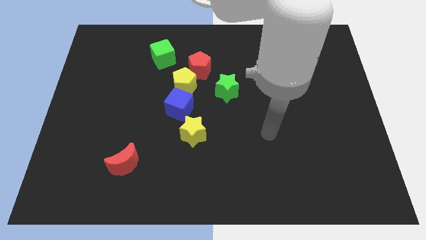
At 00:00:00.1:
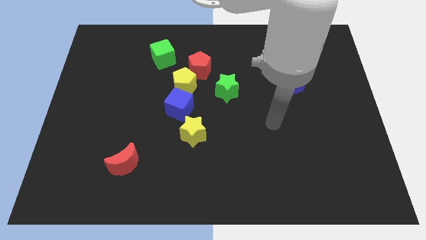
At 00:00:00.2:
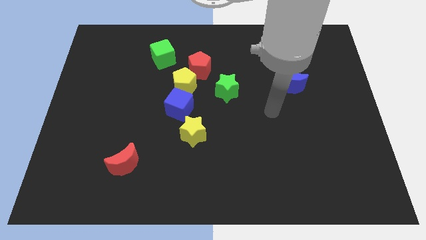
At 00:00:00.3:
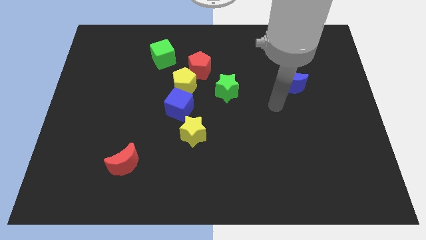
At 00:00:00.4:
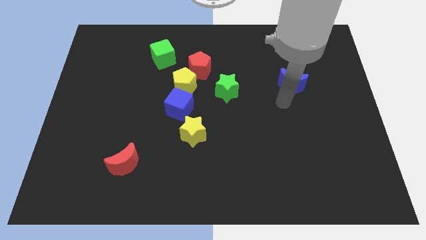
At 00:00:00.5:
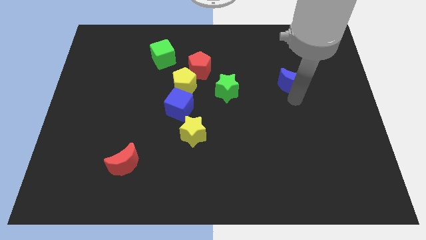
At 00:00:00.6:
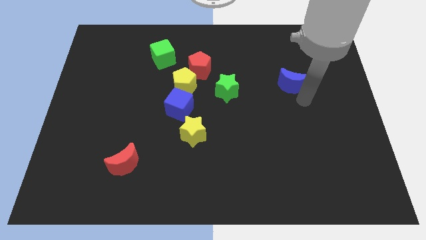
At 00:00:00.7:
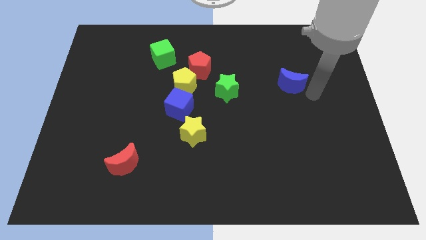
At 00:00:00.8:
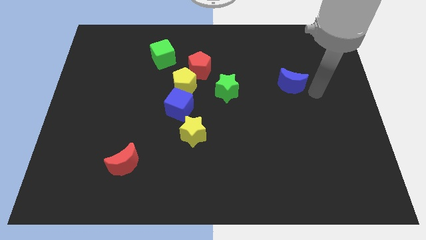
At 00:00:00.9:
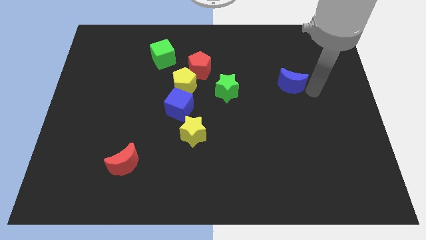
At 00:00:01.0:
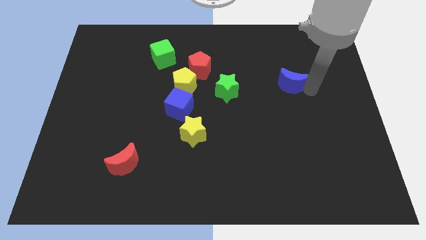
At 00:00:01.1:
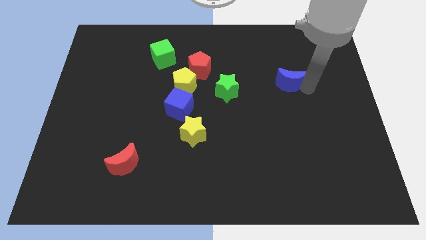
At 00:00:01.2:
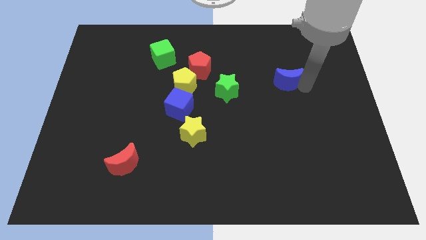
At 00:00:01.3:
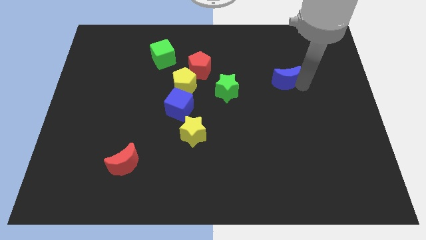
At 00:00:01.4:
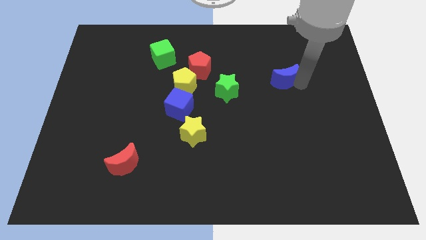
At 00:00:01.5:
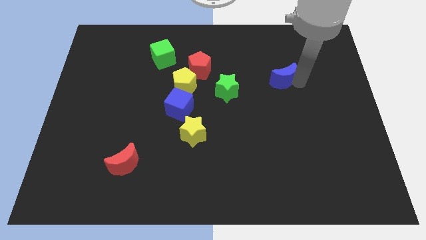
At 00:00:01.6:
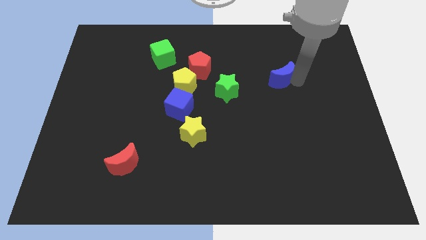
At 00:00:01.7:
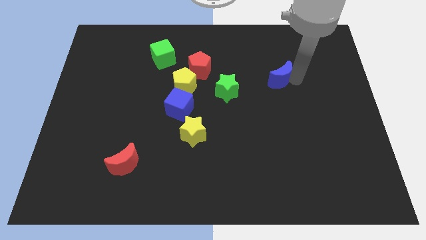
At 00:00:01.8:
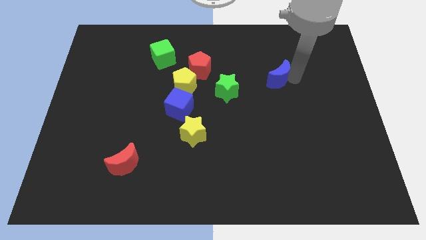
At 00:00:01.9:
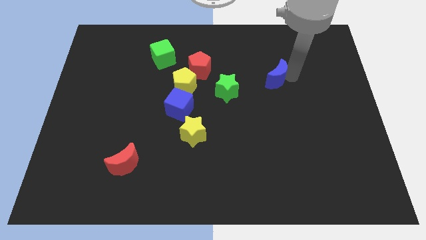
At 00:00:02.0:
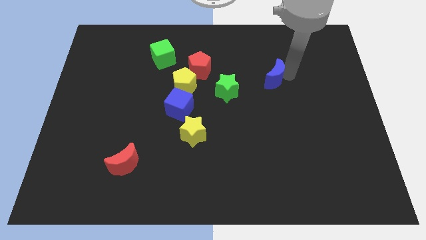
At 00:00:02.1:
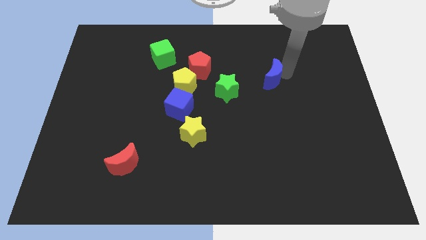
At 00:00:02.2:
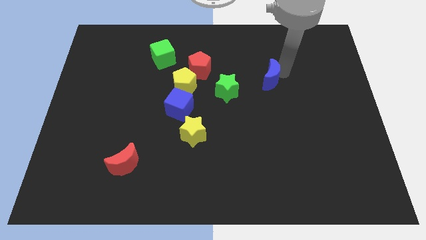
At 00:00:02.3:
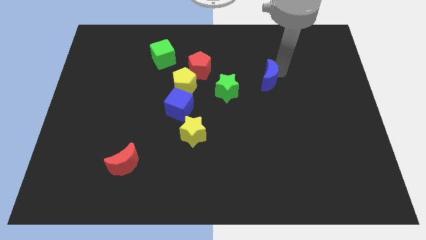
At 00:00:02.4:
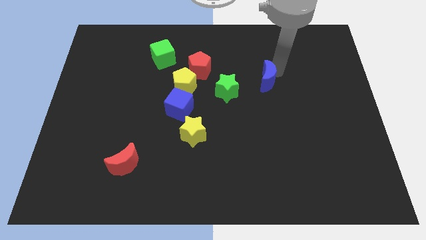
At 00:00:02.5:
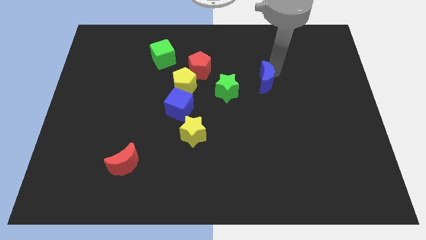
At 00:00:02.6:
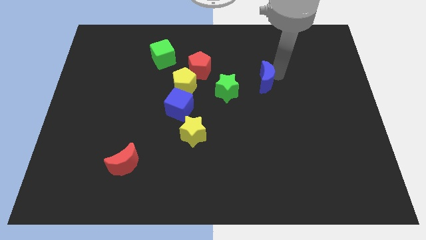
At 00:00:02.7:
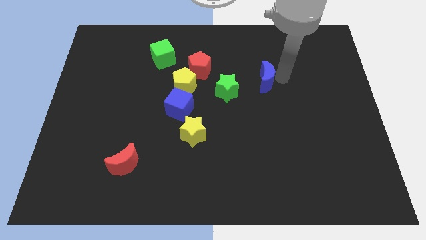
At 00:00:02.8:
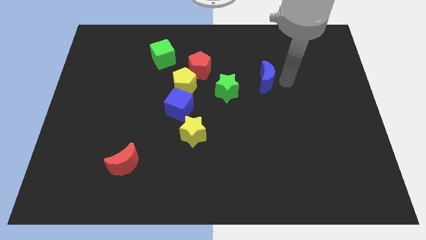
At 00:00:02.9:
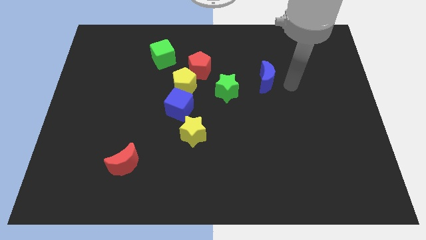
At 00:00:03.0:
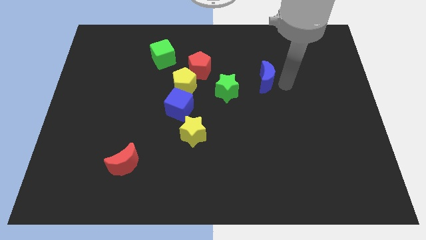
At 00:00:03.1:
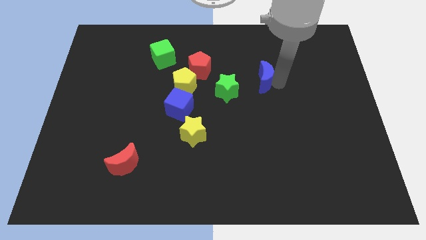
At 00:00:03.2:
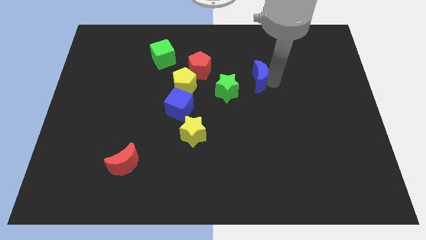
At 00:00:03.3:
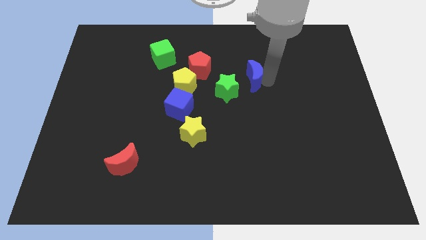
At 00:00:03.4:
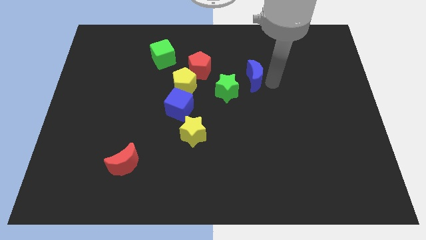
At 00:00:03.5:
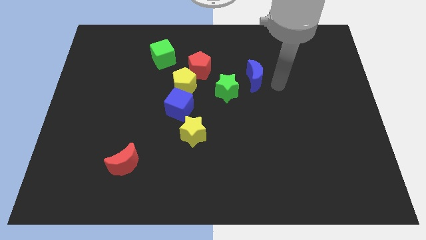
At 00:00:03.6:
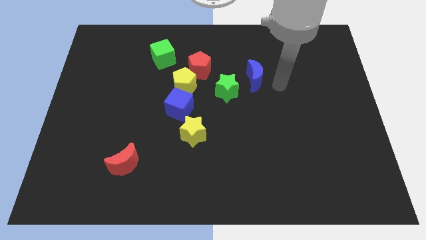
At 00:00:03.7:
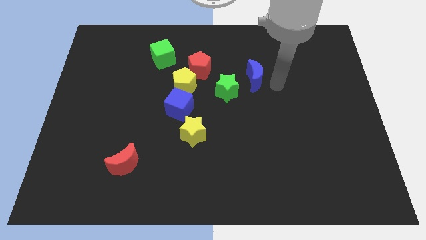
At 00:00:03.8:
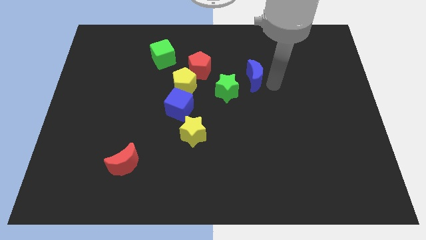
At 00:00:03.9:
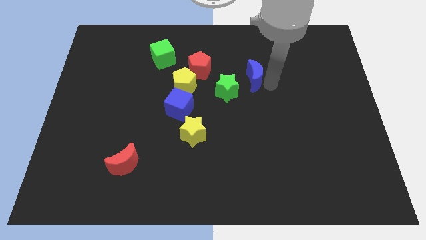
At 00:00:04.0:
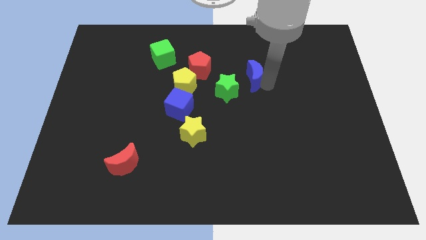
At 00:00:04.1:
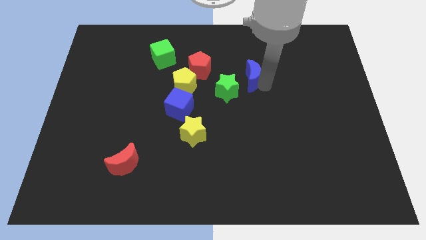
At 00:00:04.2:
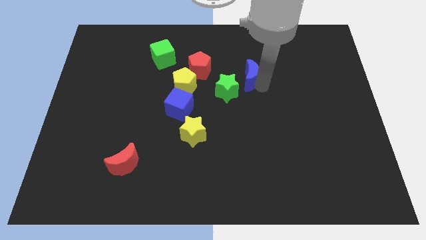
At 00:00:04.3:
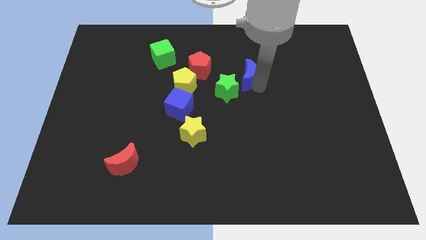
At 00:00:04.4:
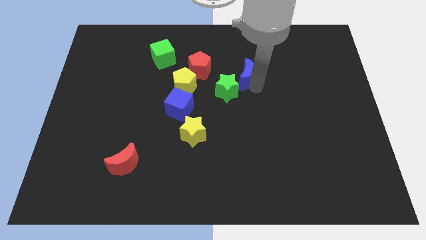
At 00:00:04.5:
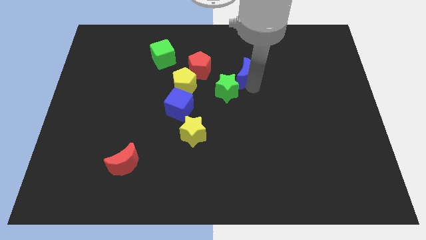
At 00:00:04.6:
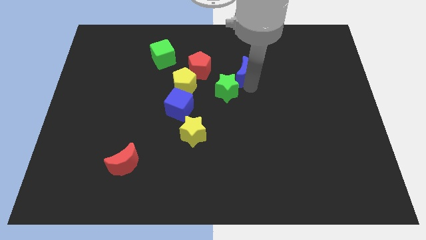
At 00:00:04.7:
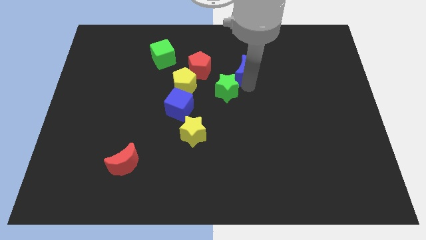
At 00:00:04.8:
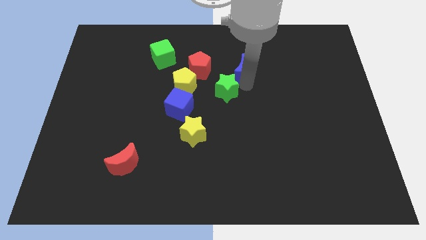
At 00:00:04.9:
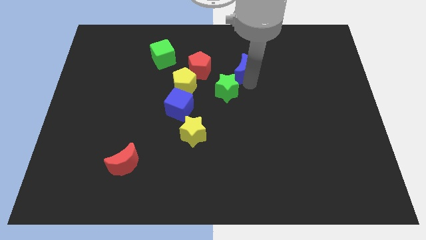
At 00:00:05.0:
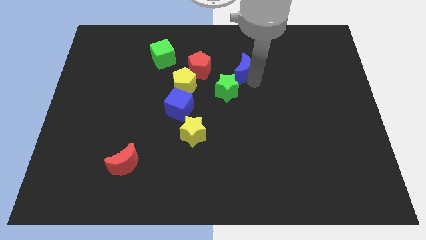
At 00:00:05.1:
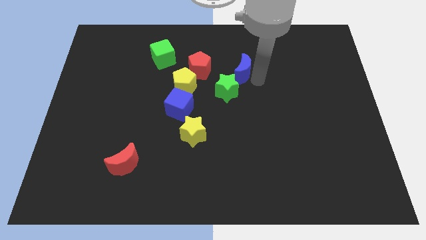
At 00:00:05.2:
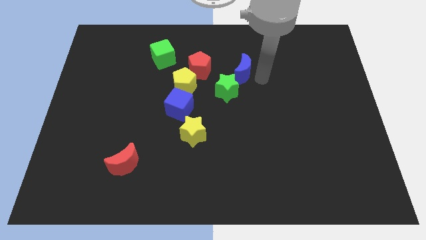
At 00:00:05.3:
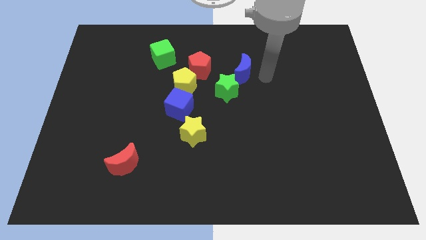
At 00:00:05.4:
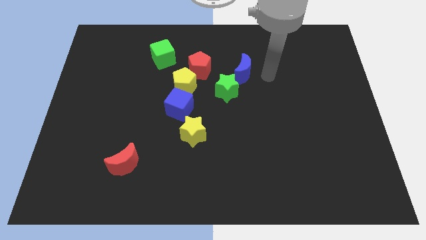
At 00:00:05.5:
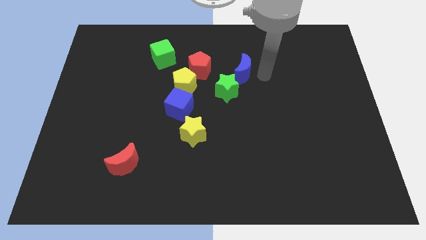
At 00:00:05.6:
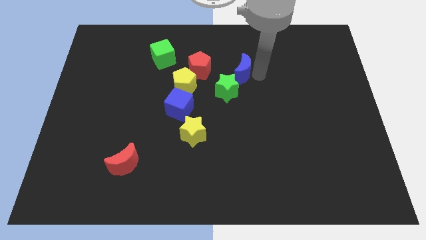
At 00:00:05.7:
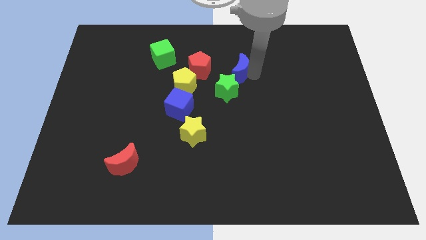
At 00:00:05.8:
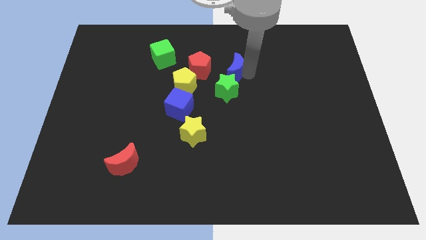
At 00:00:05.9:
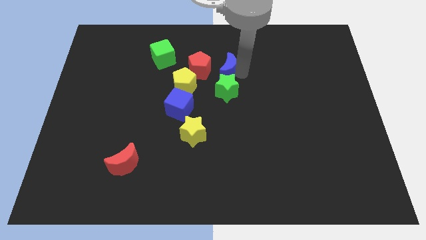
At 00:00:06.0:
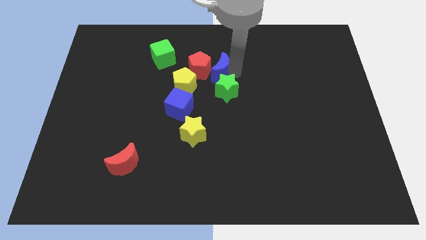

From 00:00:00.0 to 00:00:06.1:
push the blue moon next to the red pentagon

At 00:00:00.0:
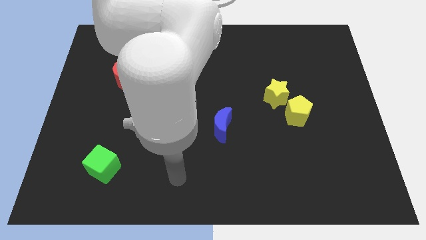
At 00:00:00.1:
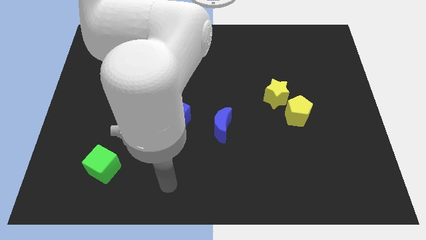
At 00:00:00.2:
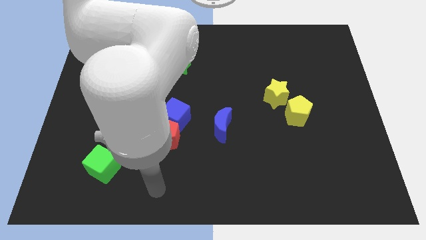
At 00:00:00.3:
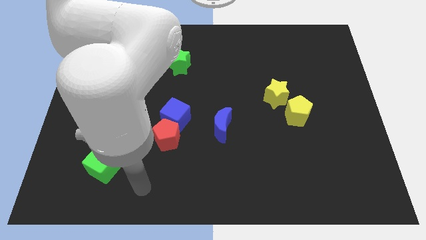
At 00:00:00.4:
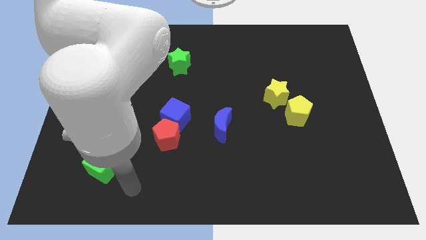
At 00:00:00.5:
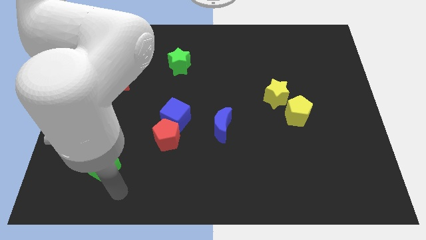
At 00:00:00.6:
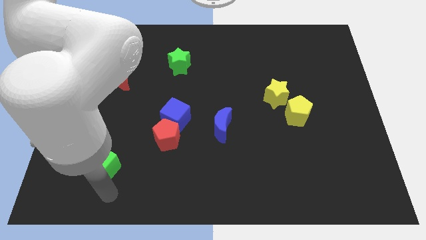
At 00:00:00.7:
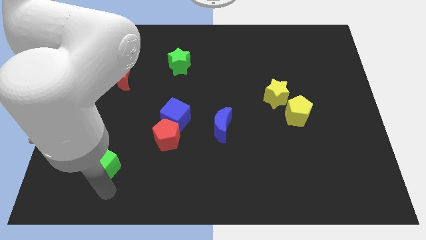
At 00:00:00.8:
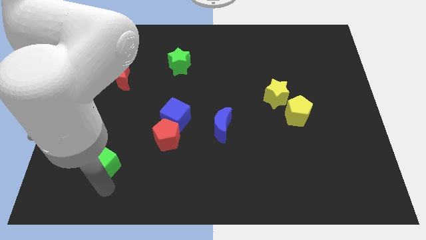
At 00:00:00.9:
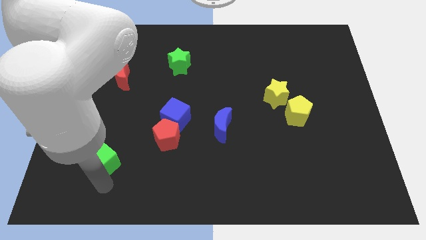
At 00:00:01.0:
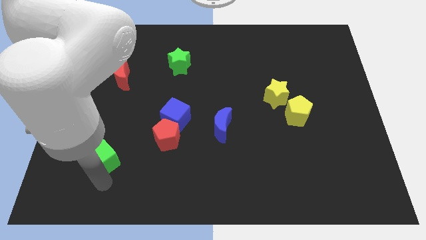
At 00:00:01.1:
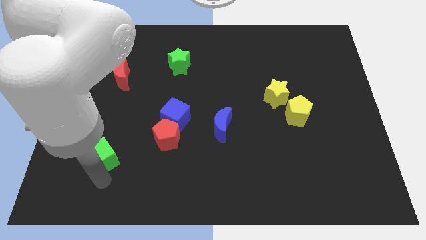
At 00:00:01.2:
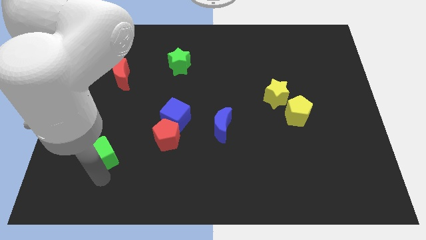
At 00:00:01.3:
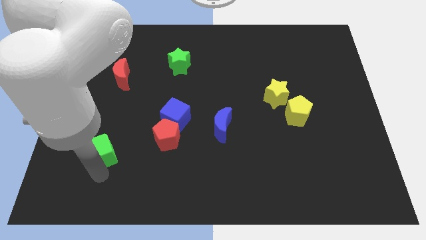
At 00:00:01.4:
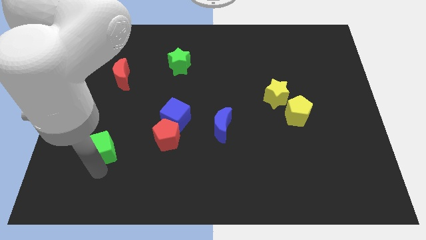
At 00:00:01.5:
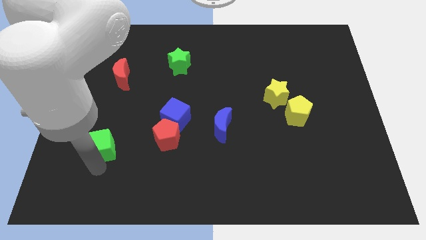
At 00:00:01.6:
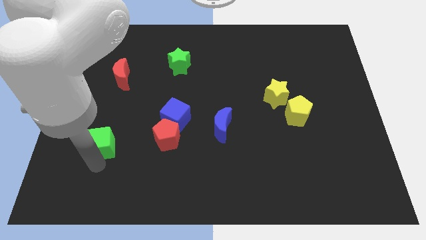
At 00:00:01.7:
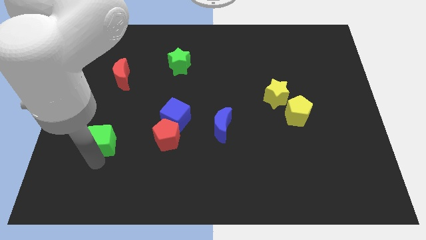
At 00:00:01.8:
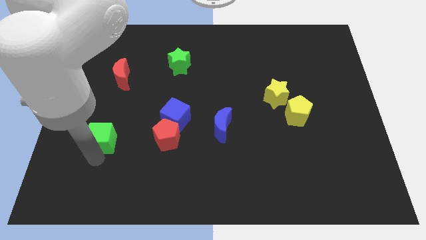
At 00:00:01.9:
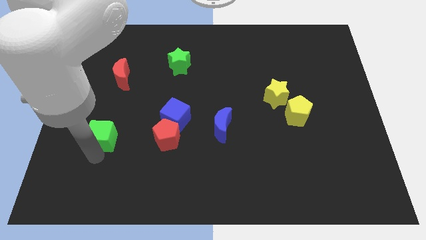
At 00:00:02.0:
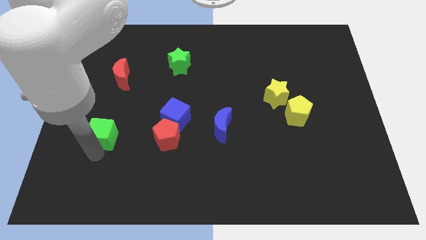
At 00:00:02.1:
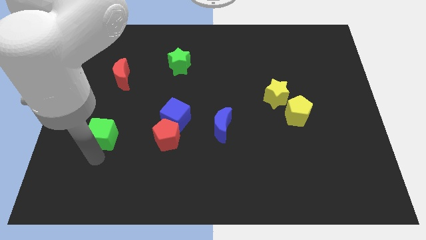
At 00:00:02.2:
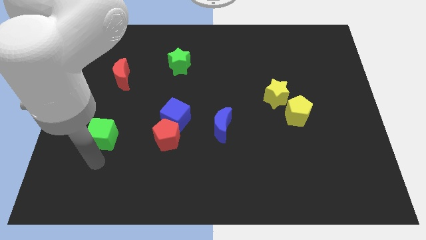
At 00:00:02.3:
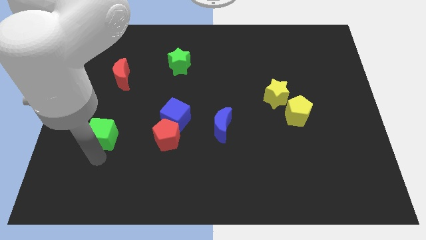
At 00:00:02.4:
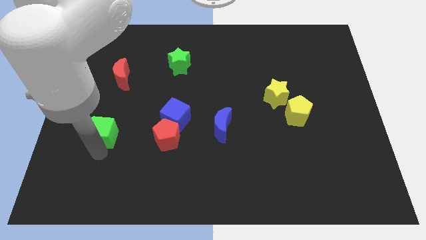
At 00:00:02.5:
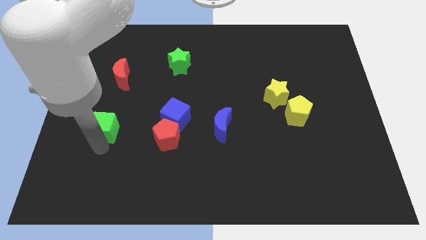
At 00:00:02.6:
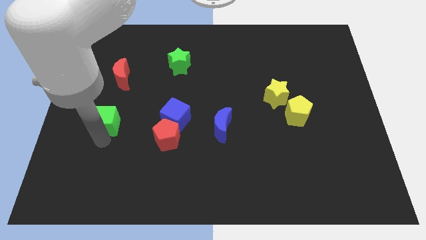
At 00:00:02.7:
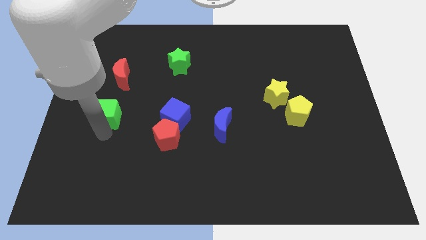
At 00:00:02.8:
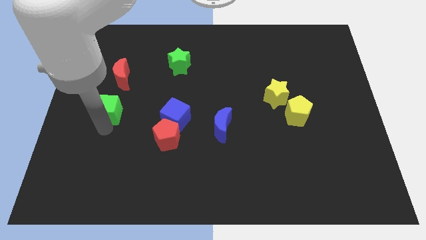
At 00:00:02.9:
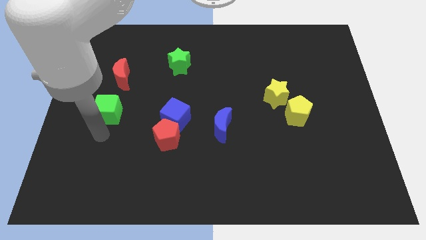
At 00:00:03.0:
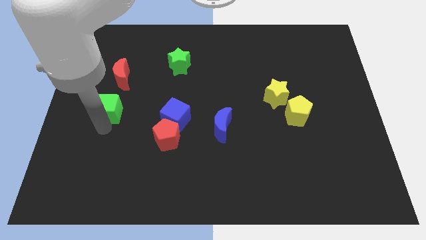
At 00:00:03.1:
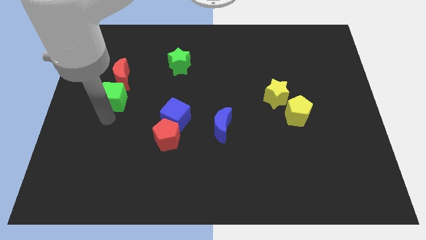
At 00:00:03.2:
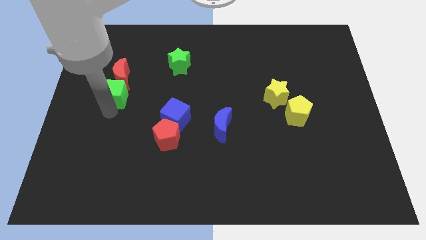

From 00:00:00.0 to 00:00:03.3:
put the green cube towards the red moon
